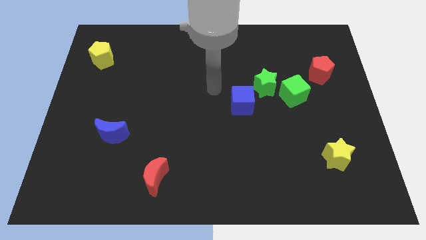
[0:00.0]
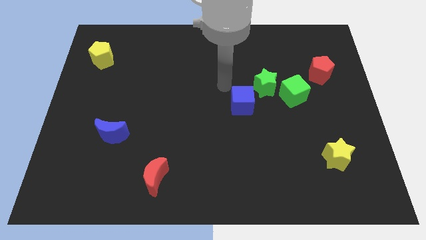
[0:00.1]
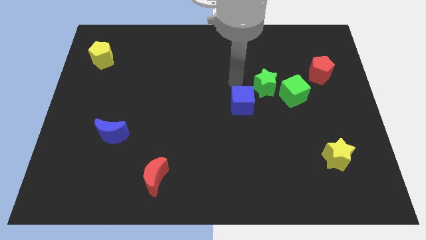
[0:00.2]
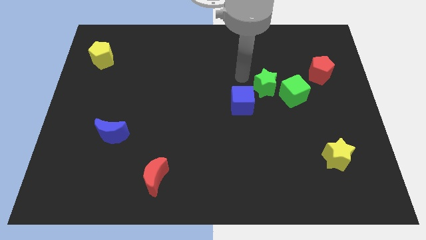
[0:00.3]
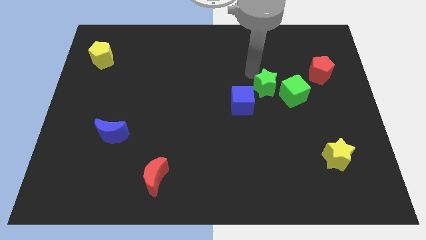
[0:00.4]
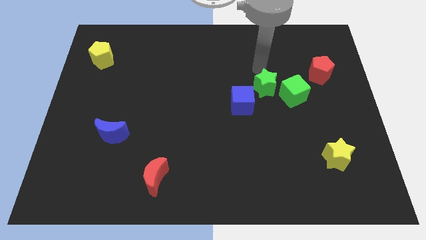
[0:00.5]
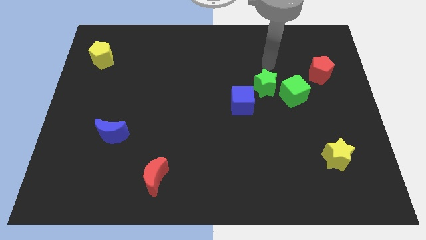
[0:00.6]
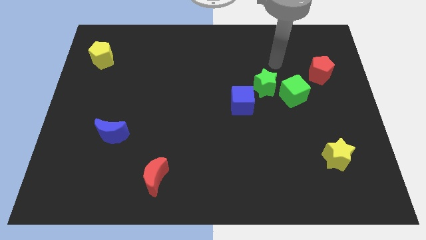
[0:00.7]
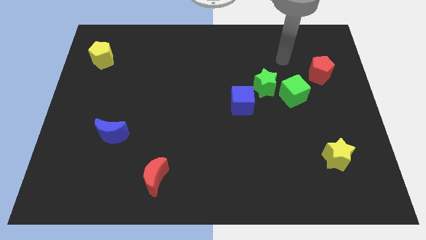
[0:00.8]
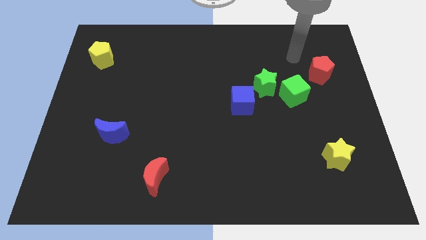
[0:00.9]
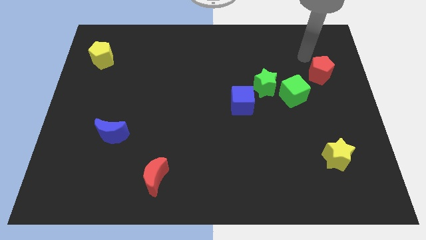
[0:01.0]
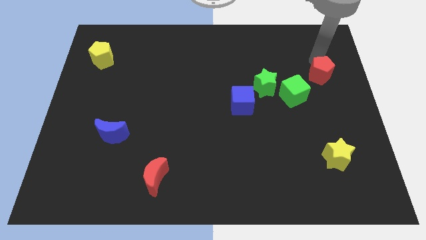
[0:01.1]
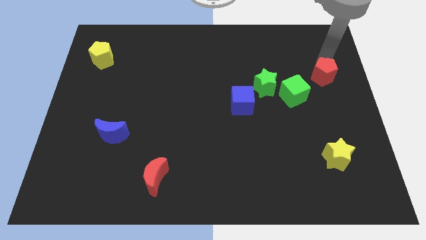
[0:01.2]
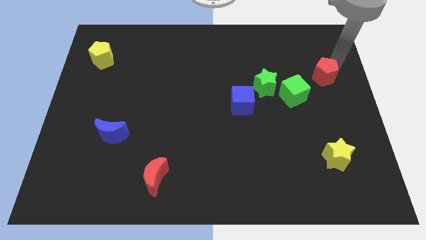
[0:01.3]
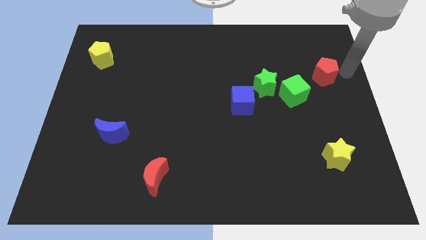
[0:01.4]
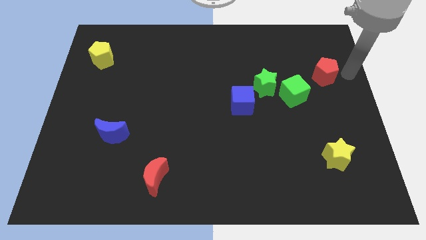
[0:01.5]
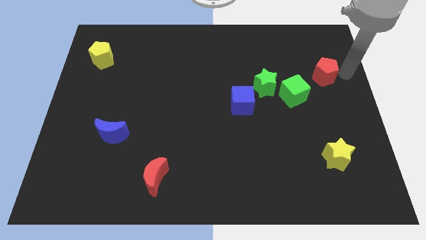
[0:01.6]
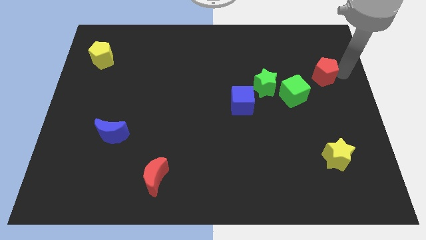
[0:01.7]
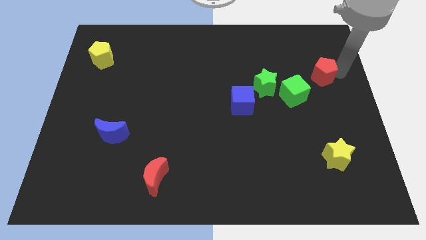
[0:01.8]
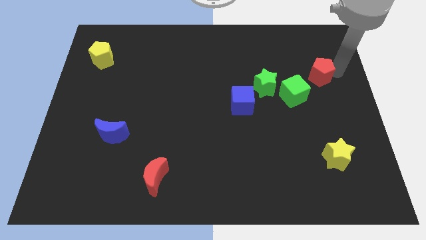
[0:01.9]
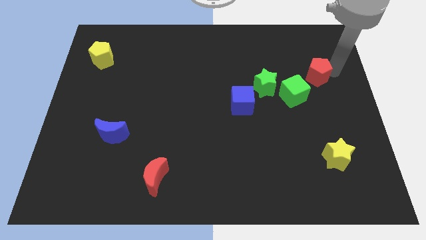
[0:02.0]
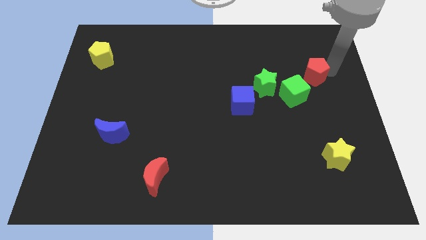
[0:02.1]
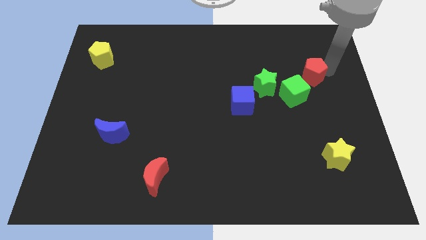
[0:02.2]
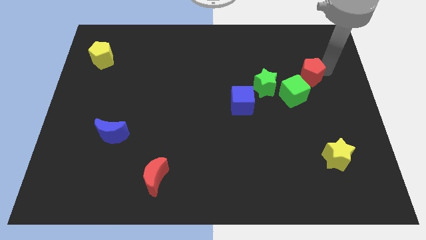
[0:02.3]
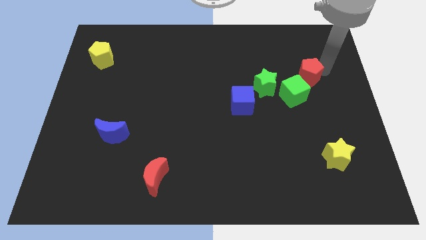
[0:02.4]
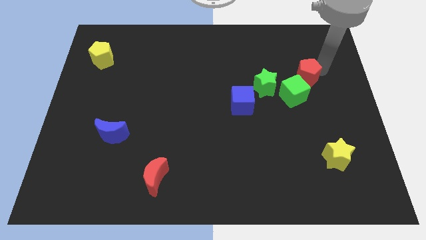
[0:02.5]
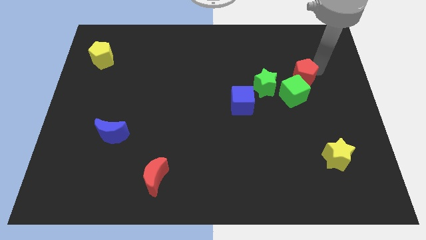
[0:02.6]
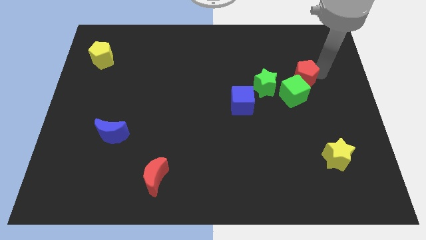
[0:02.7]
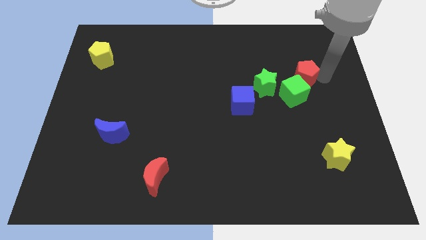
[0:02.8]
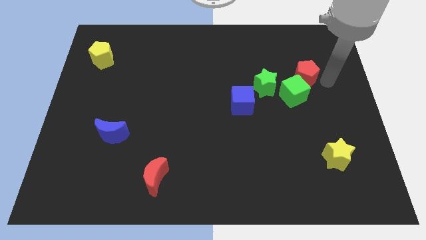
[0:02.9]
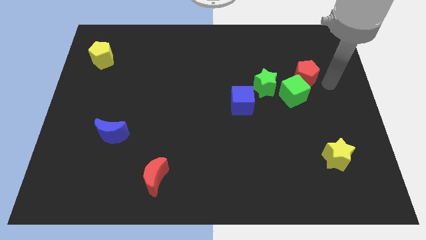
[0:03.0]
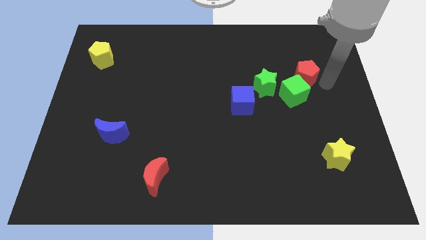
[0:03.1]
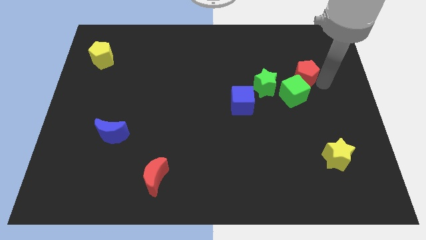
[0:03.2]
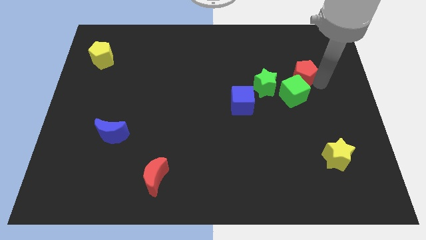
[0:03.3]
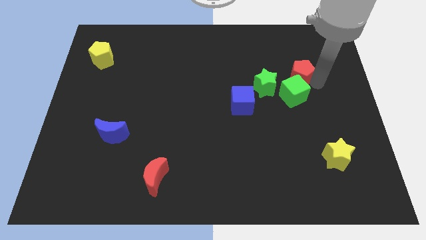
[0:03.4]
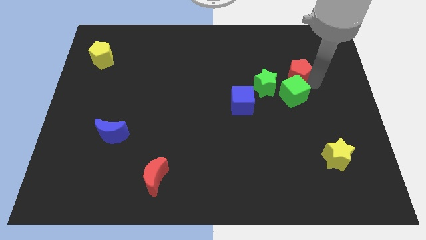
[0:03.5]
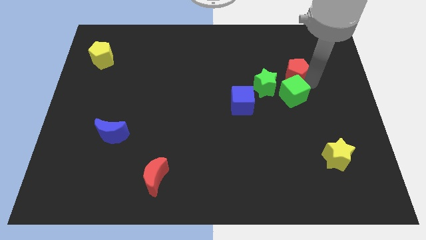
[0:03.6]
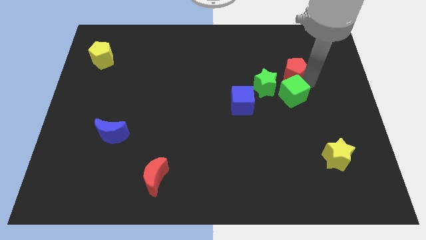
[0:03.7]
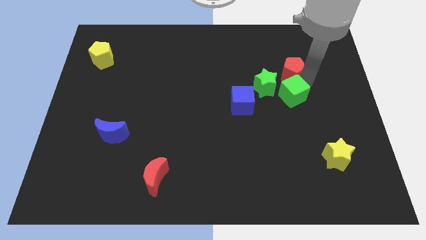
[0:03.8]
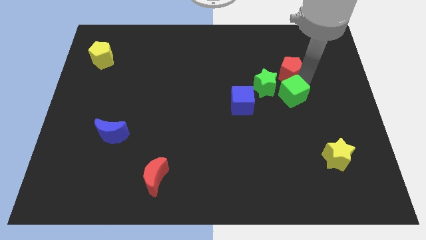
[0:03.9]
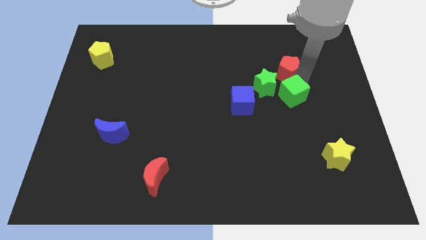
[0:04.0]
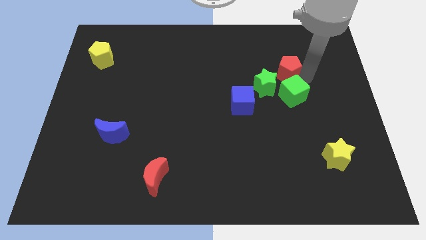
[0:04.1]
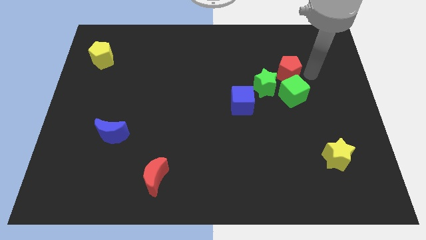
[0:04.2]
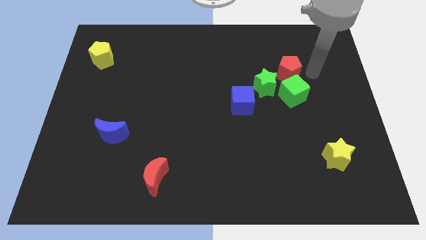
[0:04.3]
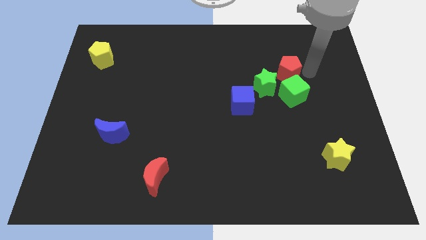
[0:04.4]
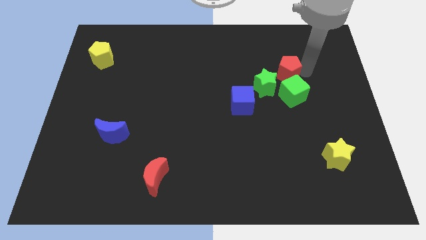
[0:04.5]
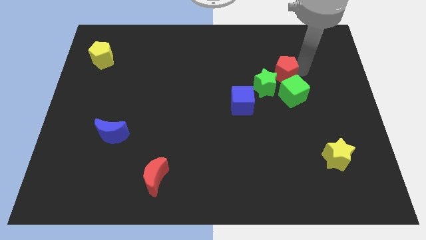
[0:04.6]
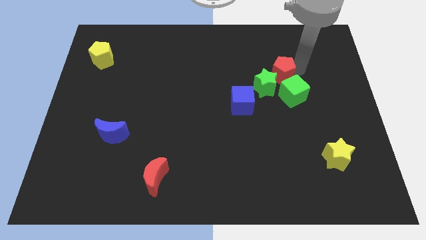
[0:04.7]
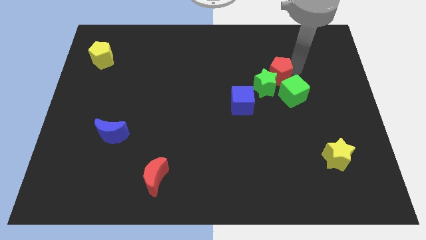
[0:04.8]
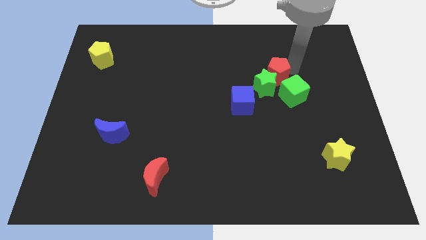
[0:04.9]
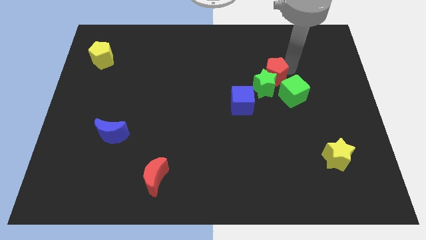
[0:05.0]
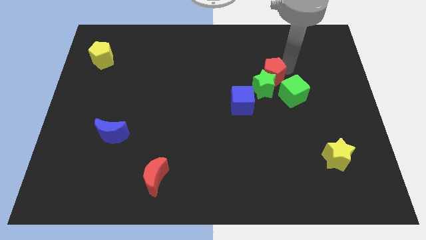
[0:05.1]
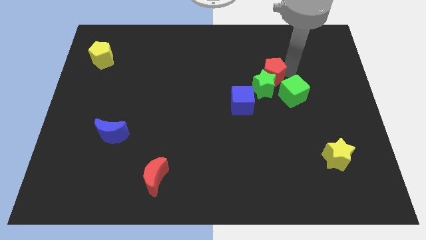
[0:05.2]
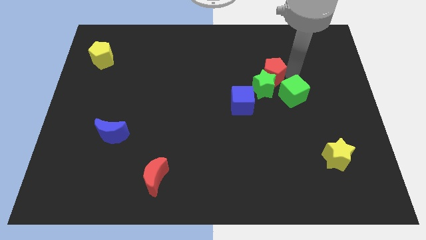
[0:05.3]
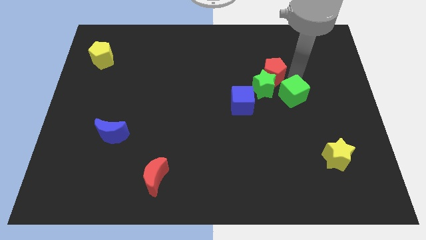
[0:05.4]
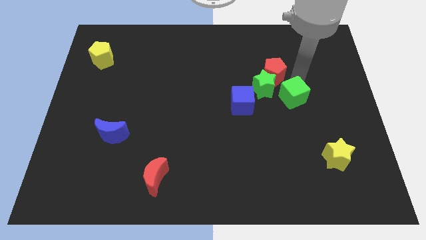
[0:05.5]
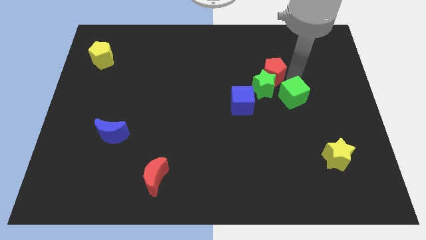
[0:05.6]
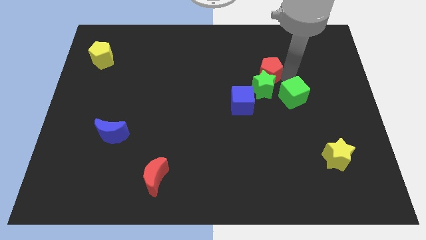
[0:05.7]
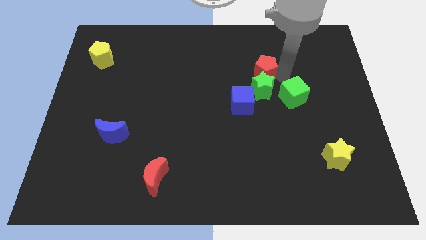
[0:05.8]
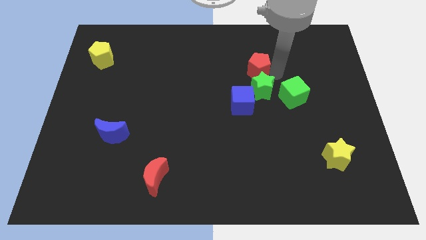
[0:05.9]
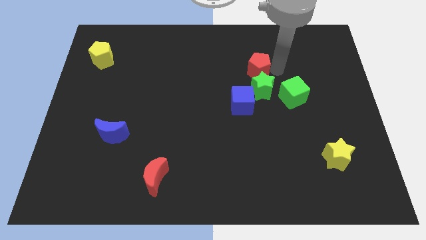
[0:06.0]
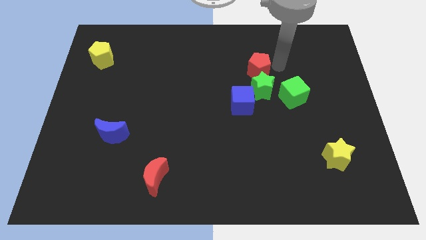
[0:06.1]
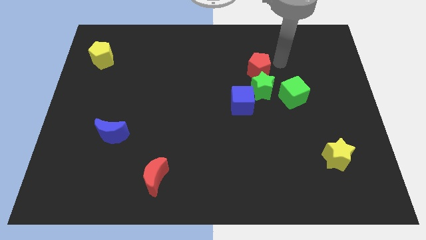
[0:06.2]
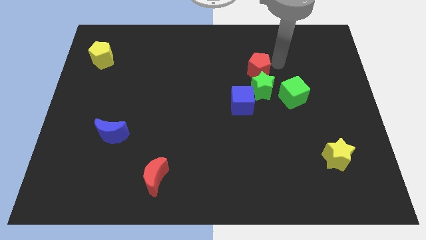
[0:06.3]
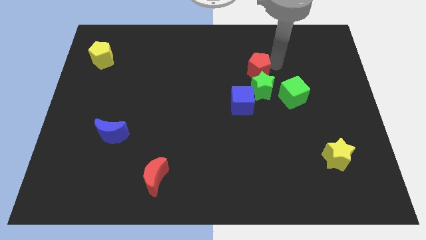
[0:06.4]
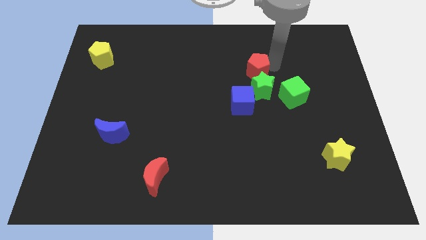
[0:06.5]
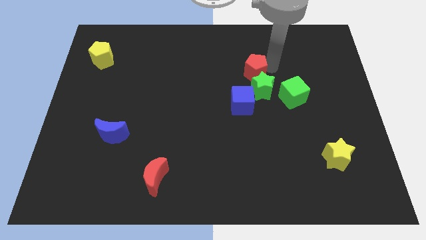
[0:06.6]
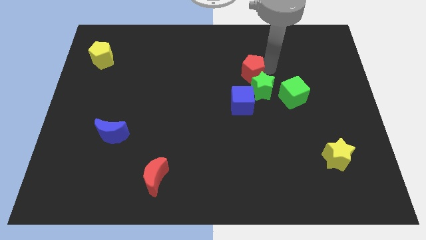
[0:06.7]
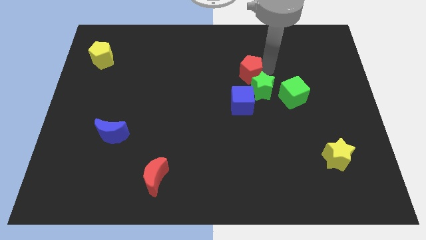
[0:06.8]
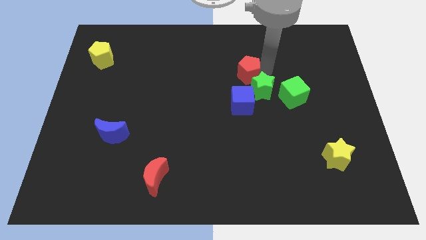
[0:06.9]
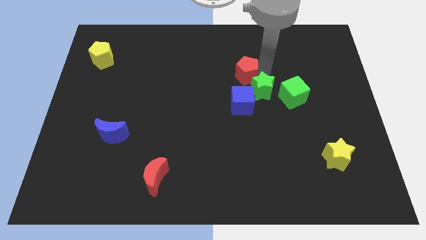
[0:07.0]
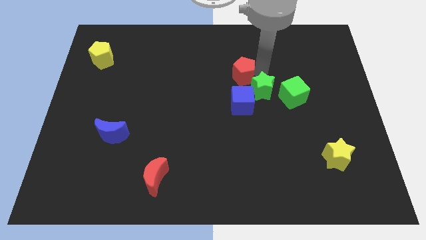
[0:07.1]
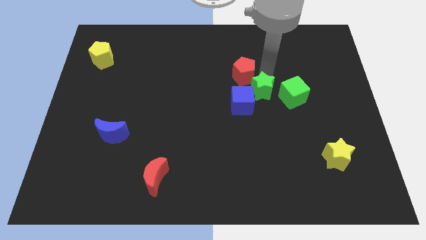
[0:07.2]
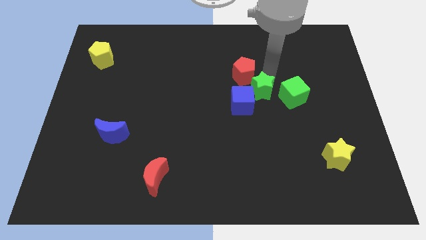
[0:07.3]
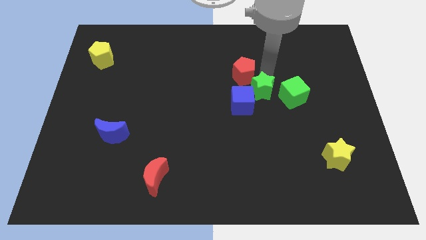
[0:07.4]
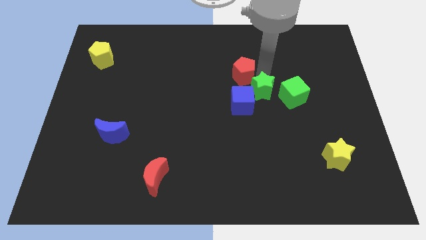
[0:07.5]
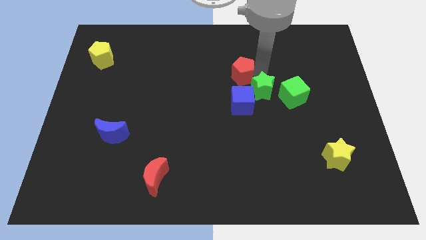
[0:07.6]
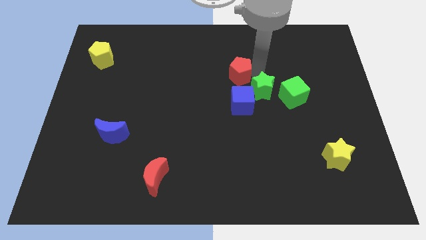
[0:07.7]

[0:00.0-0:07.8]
push the red pentagon left
